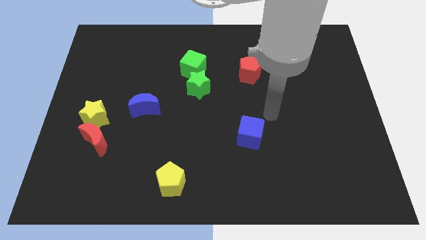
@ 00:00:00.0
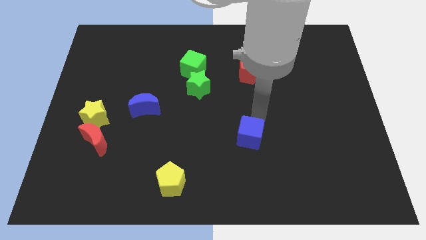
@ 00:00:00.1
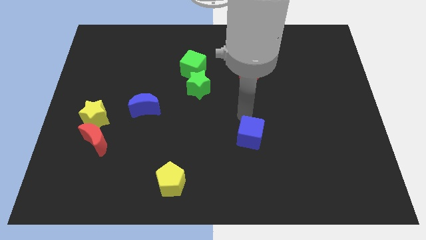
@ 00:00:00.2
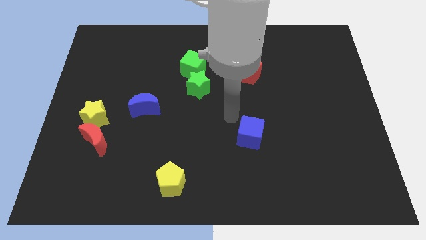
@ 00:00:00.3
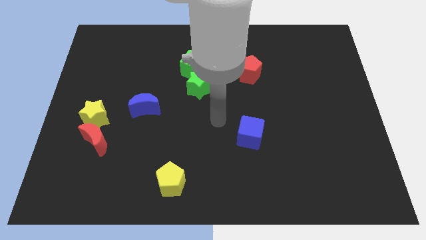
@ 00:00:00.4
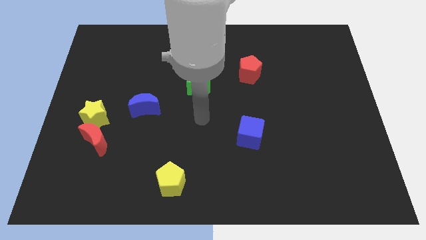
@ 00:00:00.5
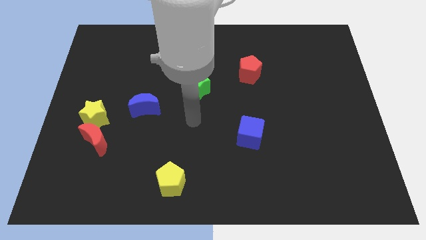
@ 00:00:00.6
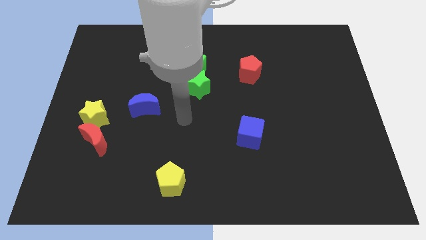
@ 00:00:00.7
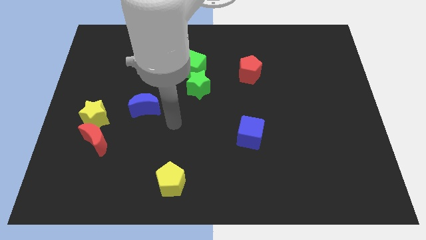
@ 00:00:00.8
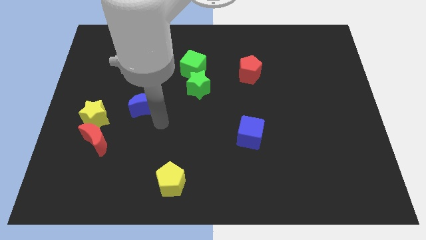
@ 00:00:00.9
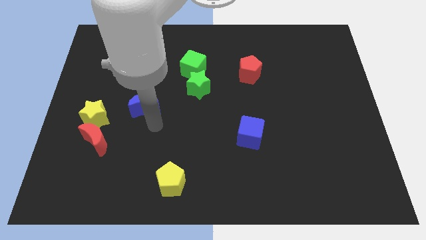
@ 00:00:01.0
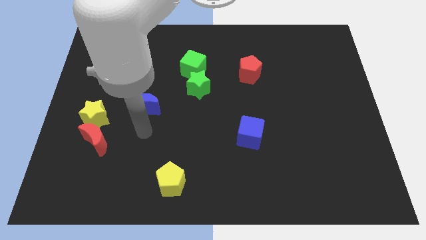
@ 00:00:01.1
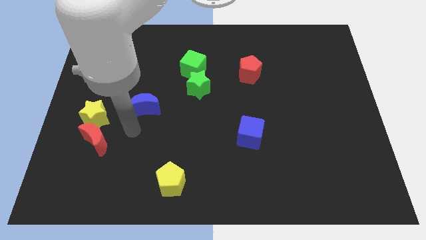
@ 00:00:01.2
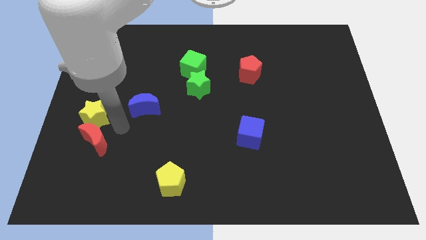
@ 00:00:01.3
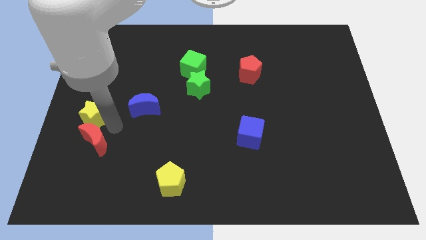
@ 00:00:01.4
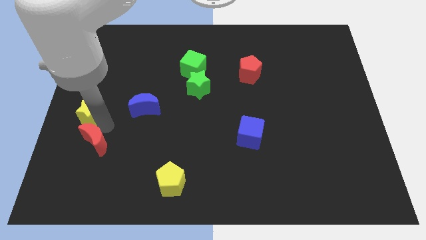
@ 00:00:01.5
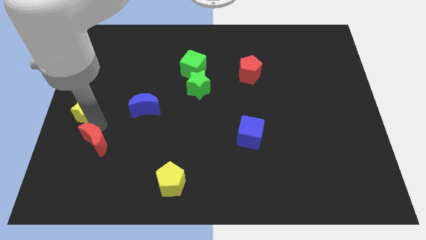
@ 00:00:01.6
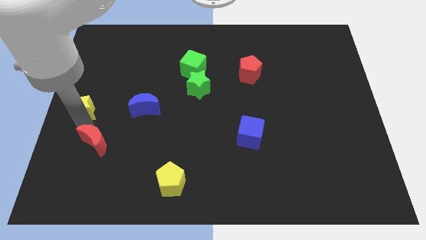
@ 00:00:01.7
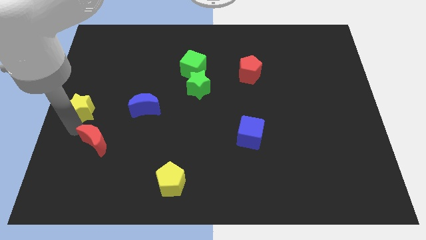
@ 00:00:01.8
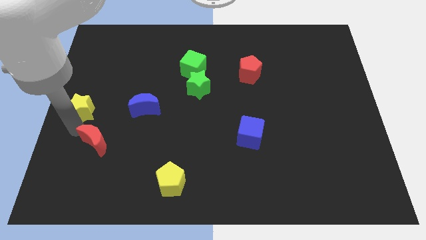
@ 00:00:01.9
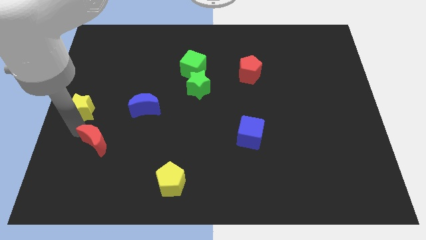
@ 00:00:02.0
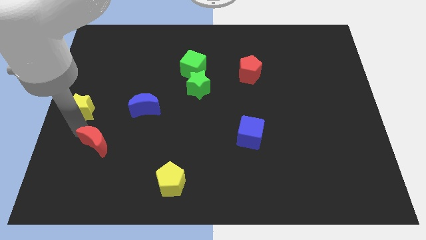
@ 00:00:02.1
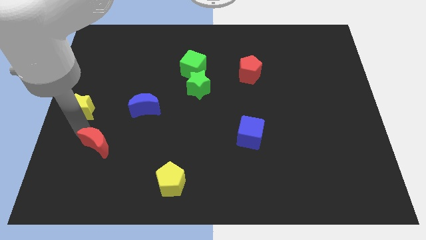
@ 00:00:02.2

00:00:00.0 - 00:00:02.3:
move the red moon away from the yellow star

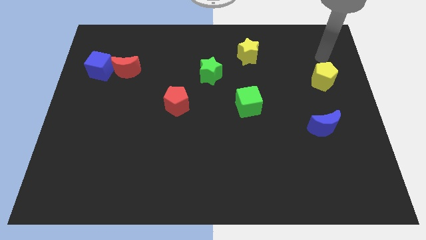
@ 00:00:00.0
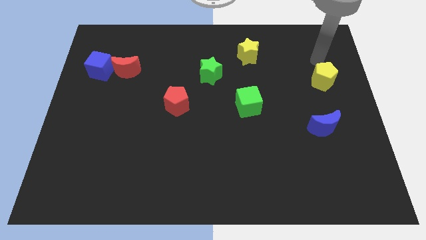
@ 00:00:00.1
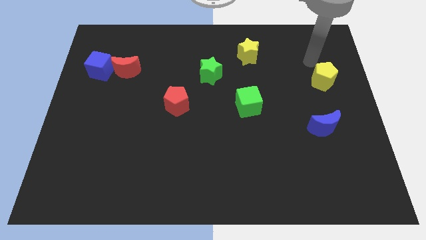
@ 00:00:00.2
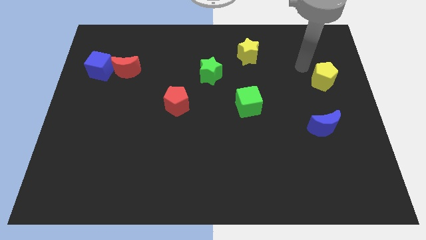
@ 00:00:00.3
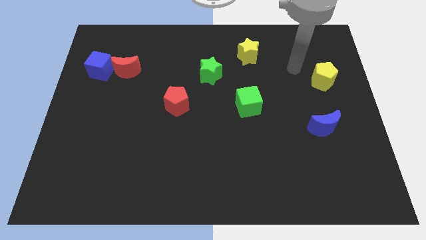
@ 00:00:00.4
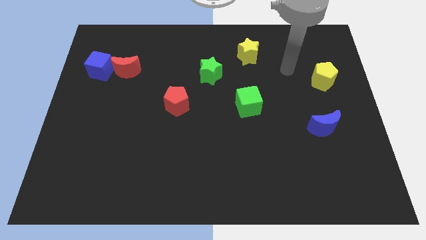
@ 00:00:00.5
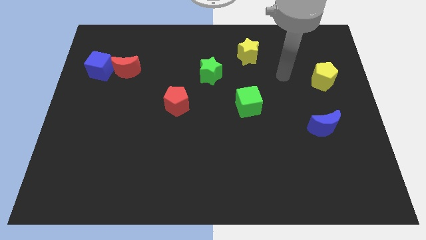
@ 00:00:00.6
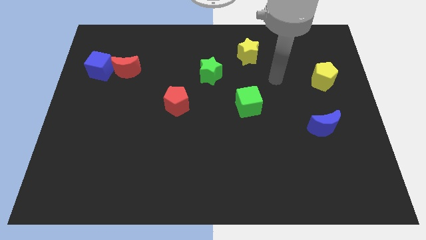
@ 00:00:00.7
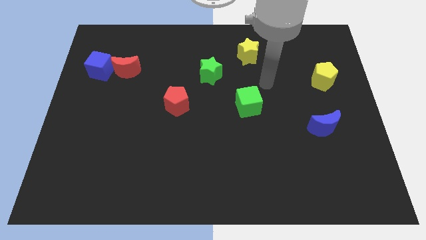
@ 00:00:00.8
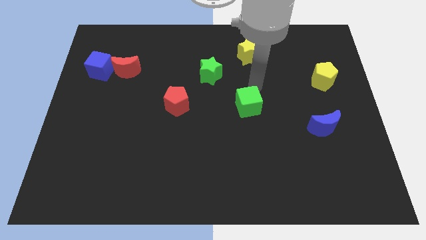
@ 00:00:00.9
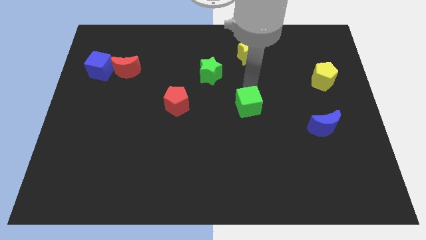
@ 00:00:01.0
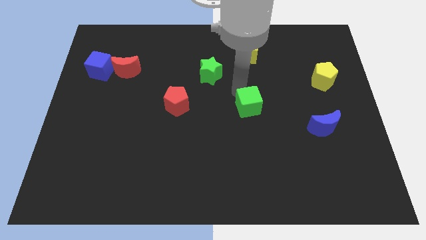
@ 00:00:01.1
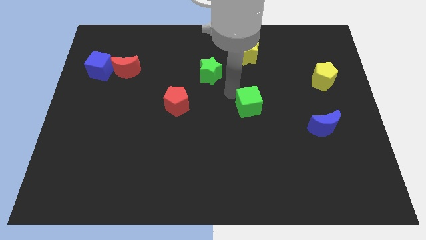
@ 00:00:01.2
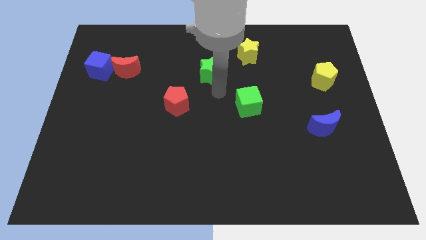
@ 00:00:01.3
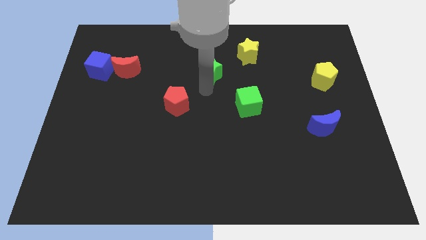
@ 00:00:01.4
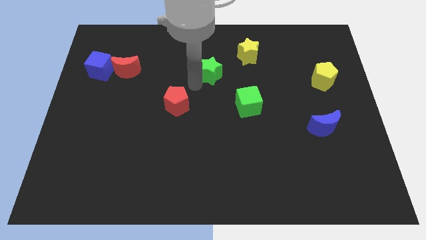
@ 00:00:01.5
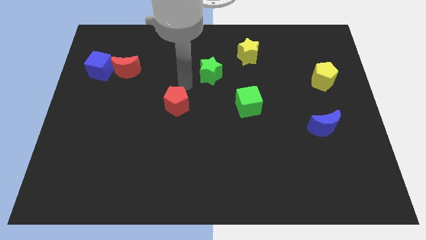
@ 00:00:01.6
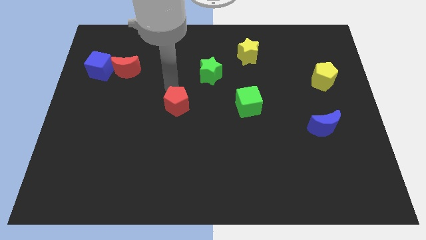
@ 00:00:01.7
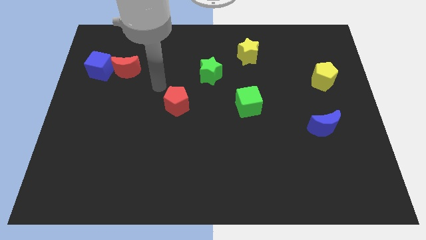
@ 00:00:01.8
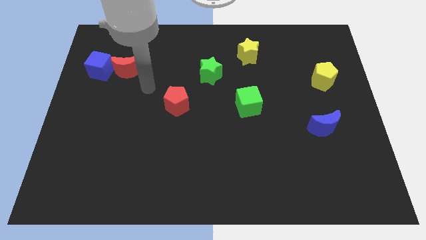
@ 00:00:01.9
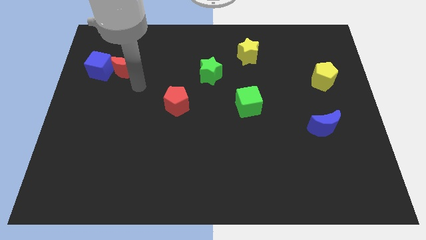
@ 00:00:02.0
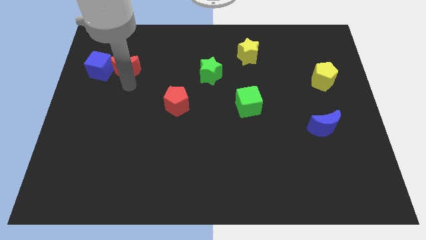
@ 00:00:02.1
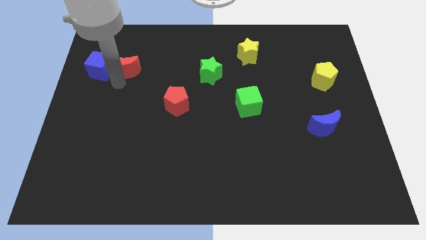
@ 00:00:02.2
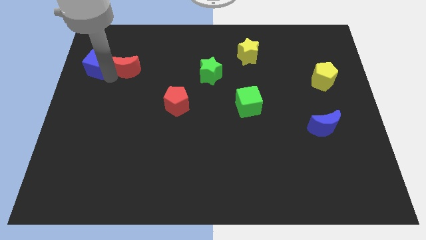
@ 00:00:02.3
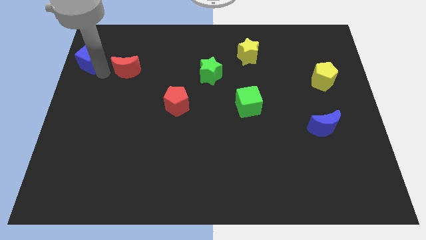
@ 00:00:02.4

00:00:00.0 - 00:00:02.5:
move the red moon away from the blue cube

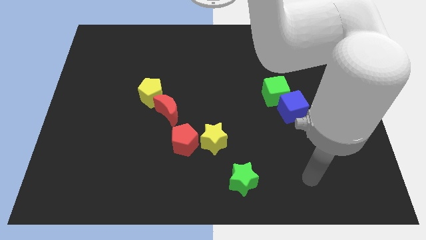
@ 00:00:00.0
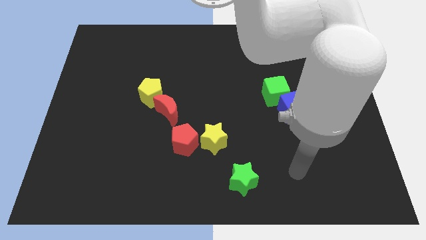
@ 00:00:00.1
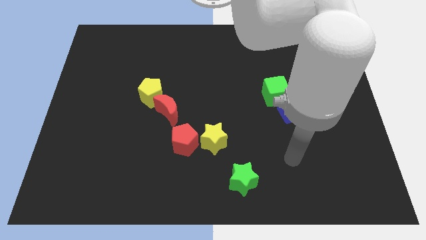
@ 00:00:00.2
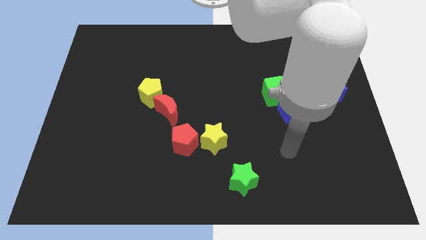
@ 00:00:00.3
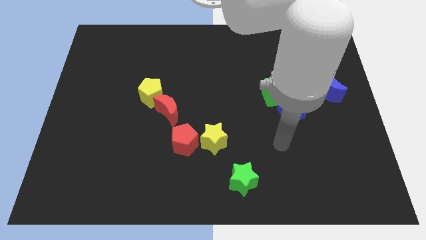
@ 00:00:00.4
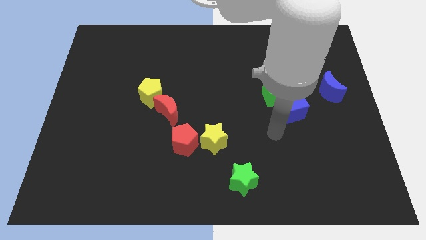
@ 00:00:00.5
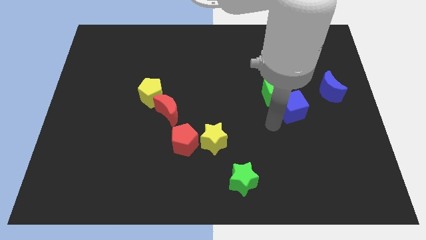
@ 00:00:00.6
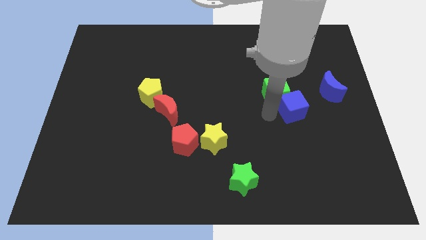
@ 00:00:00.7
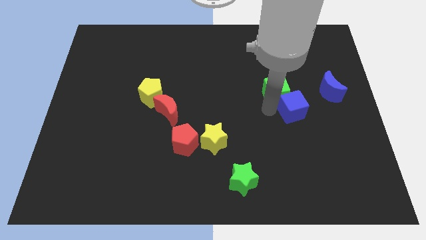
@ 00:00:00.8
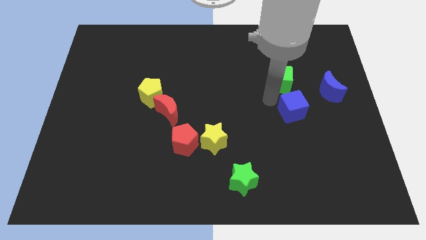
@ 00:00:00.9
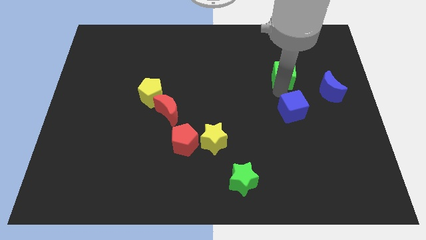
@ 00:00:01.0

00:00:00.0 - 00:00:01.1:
move the blue cube away from the green cube

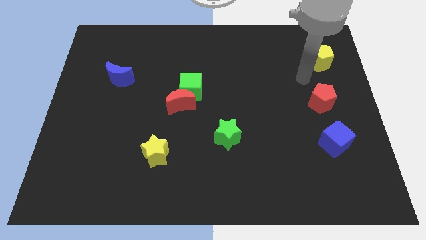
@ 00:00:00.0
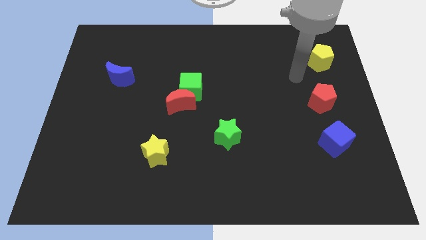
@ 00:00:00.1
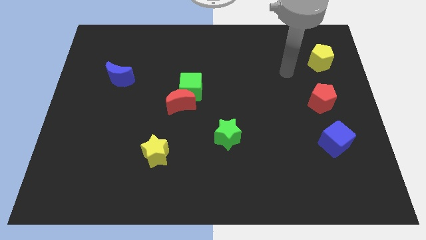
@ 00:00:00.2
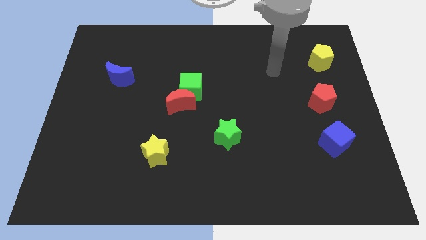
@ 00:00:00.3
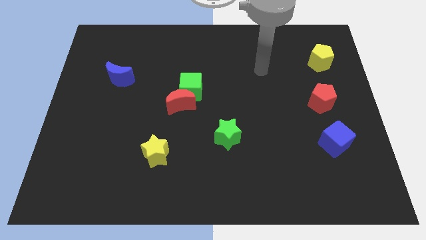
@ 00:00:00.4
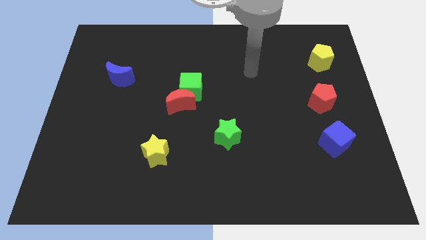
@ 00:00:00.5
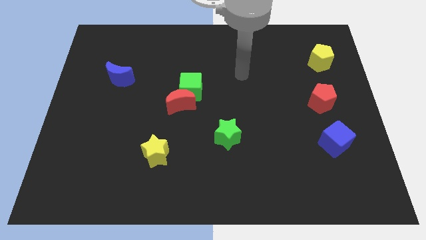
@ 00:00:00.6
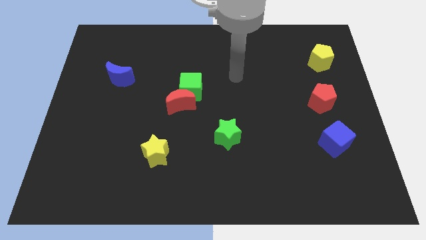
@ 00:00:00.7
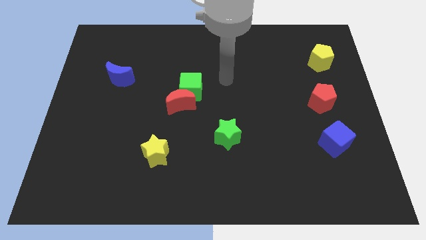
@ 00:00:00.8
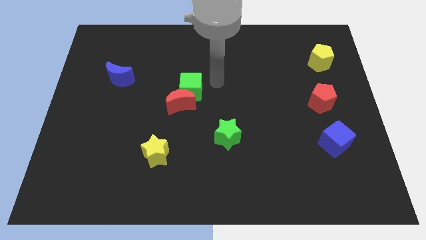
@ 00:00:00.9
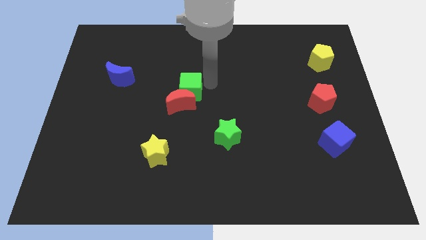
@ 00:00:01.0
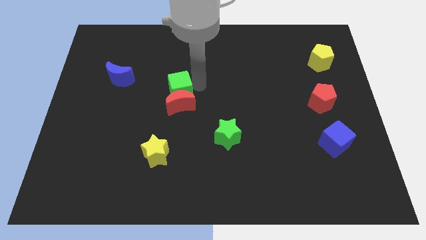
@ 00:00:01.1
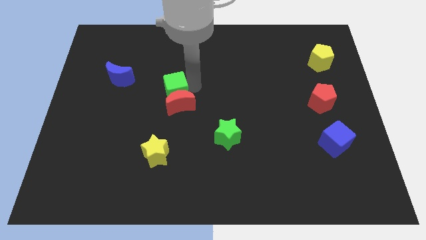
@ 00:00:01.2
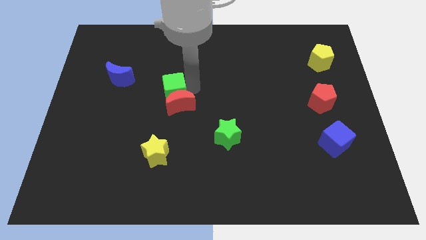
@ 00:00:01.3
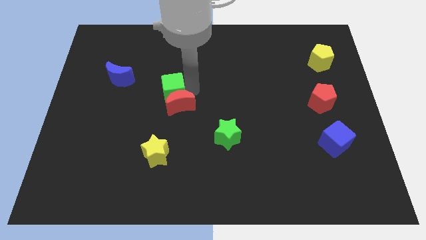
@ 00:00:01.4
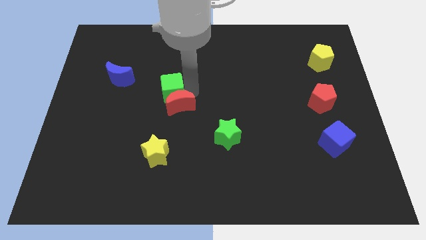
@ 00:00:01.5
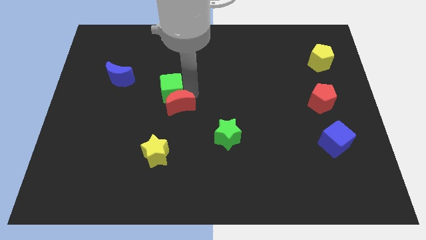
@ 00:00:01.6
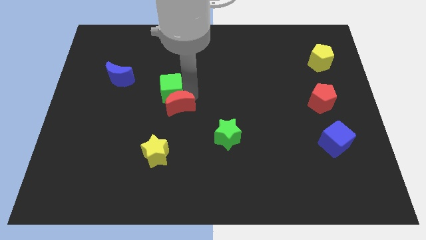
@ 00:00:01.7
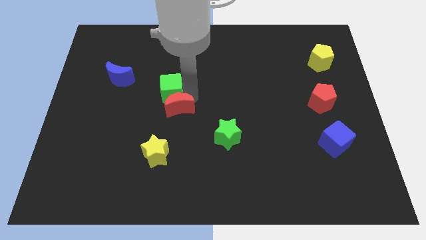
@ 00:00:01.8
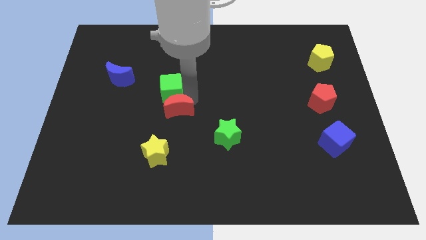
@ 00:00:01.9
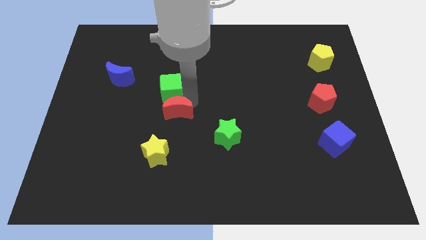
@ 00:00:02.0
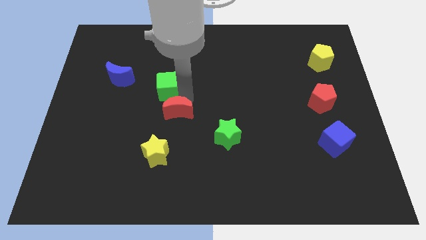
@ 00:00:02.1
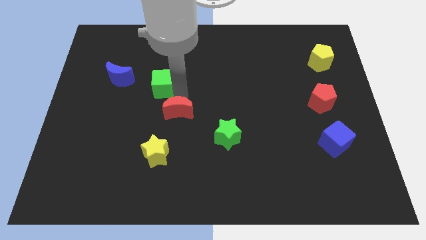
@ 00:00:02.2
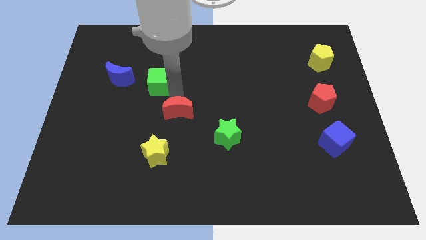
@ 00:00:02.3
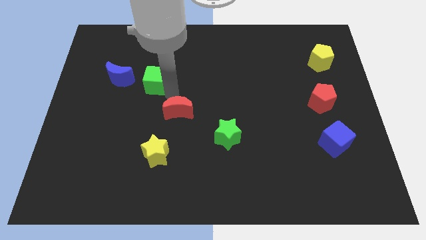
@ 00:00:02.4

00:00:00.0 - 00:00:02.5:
separate the red moon from the green cube

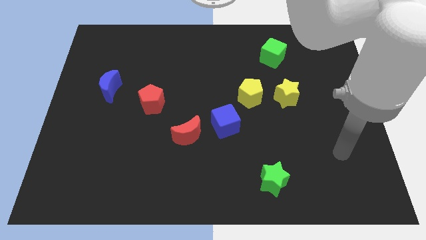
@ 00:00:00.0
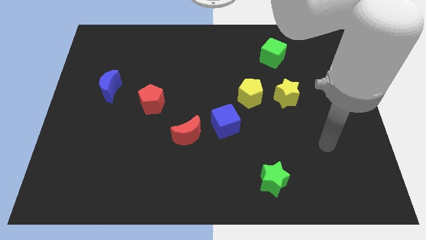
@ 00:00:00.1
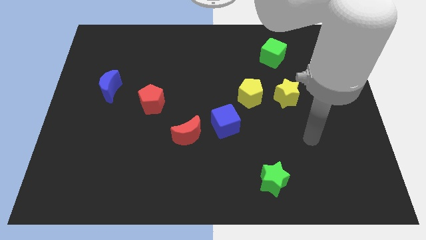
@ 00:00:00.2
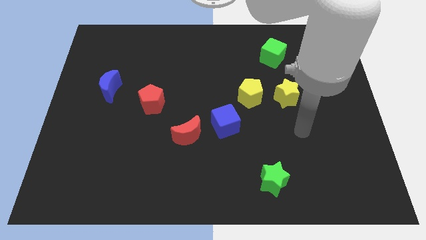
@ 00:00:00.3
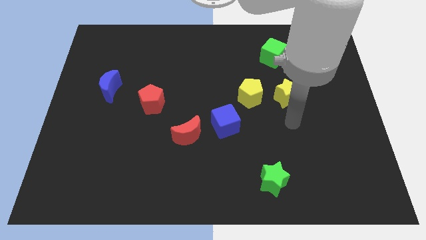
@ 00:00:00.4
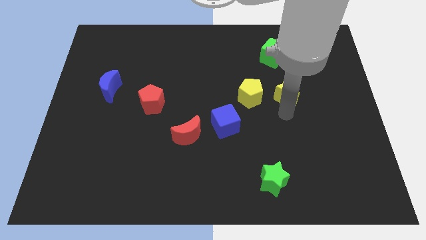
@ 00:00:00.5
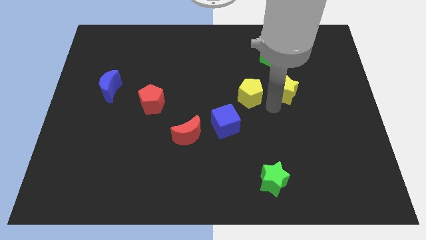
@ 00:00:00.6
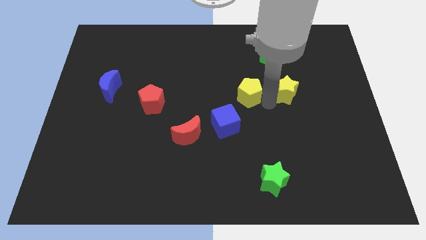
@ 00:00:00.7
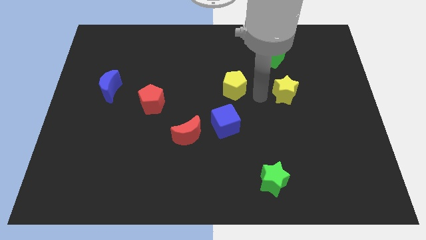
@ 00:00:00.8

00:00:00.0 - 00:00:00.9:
pull the yellow star apart from the yellow pentagon
